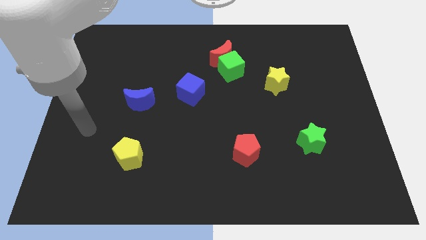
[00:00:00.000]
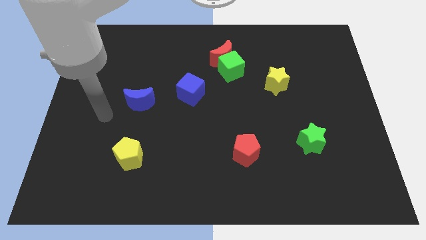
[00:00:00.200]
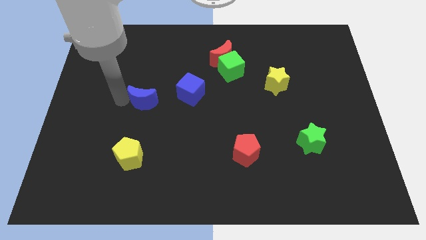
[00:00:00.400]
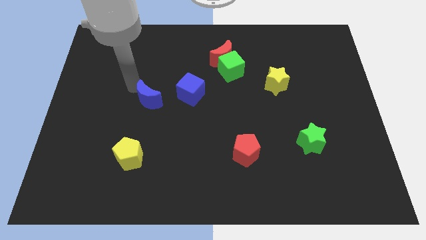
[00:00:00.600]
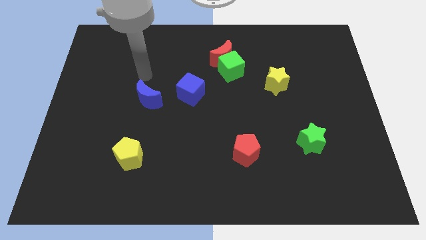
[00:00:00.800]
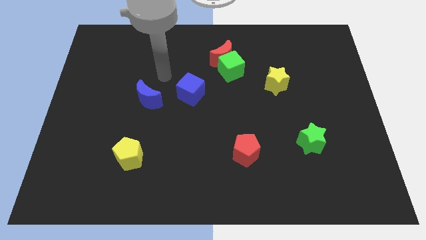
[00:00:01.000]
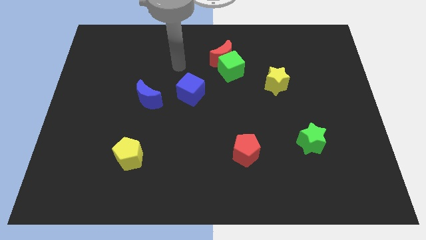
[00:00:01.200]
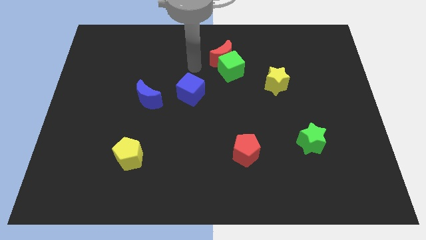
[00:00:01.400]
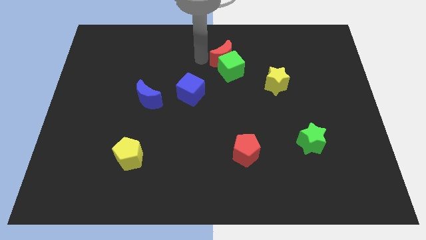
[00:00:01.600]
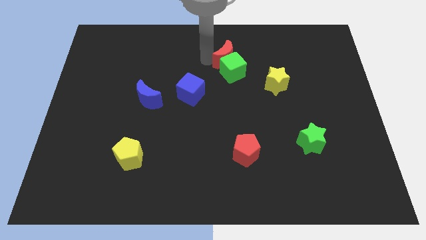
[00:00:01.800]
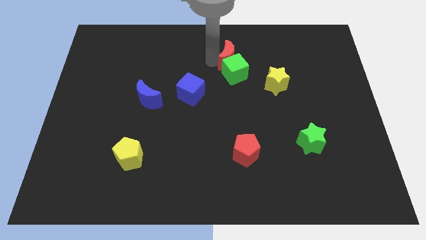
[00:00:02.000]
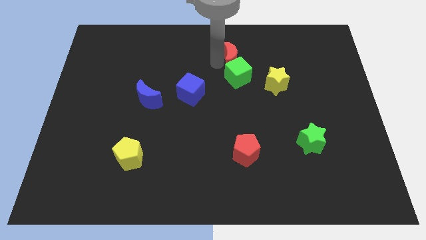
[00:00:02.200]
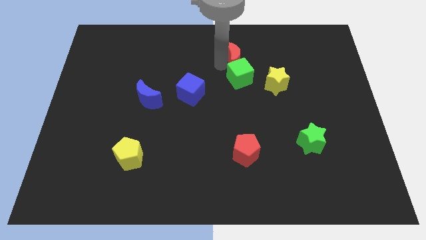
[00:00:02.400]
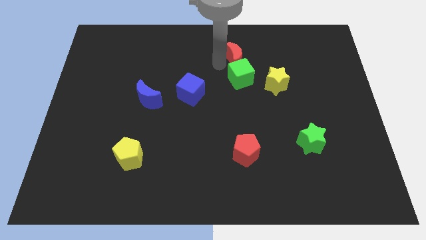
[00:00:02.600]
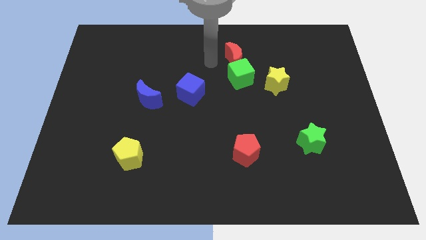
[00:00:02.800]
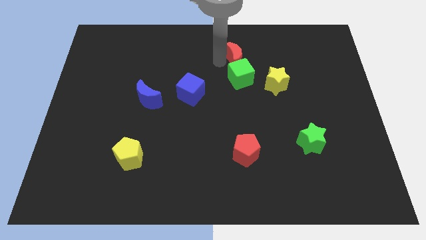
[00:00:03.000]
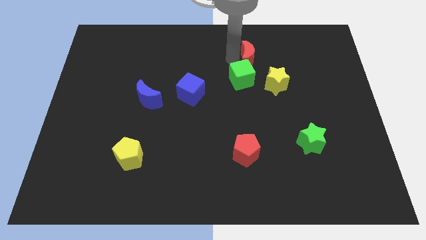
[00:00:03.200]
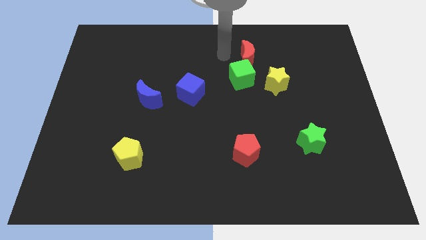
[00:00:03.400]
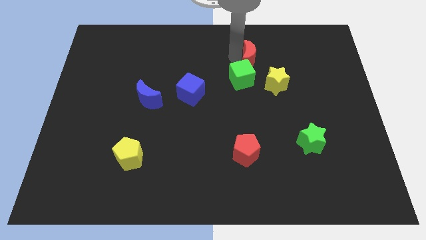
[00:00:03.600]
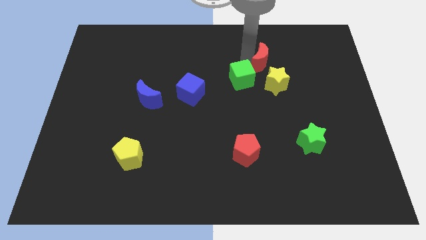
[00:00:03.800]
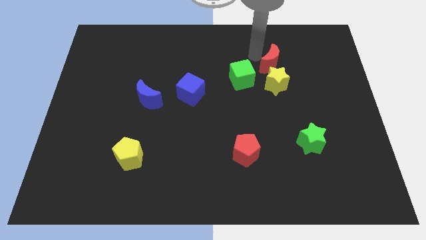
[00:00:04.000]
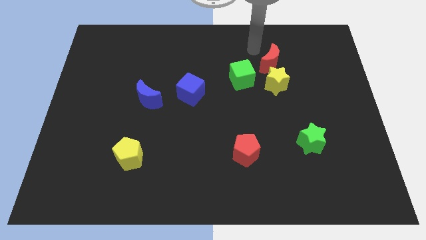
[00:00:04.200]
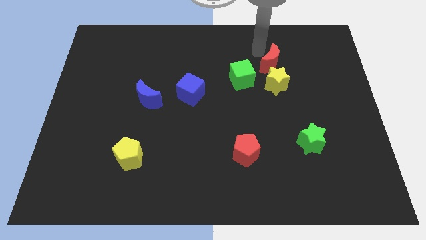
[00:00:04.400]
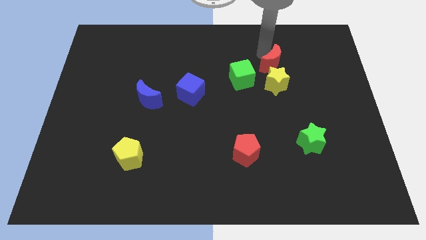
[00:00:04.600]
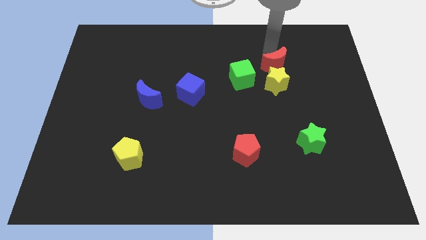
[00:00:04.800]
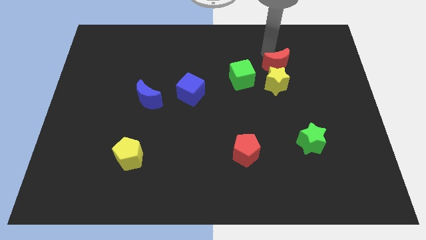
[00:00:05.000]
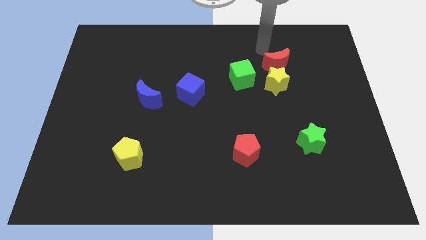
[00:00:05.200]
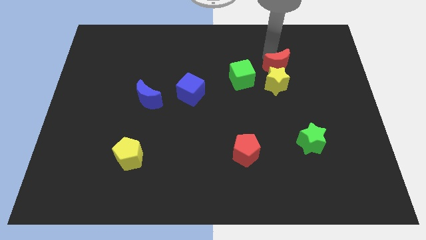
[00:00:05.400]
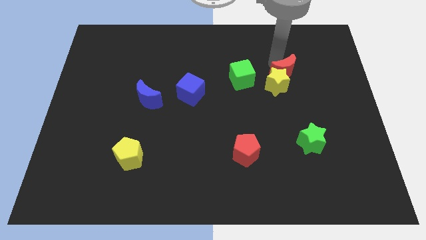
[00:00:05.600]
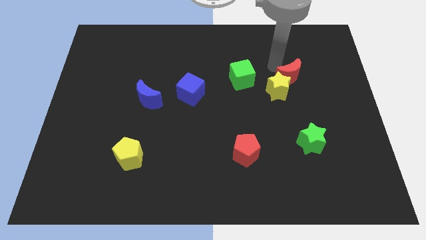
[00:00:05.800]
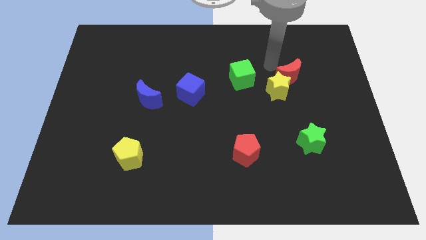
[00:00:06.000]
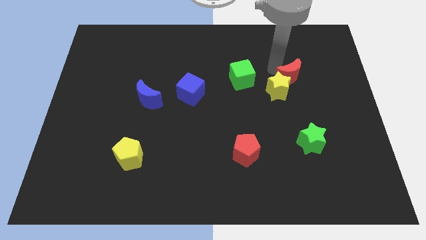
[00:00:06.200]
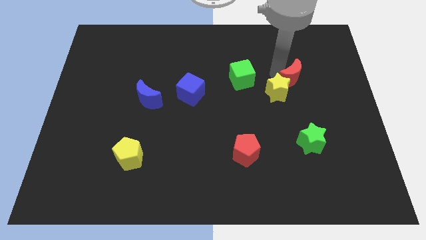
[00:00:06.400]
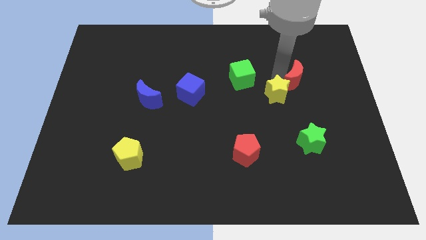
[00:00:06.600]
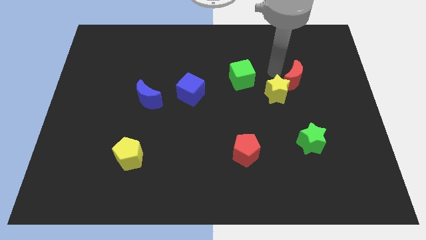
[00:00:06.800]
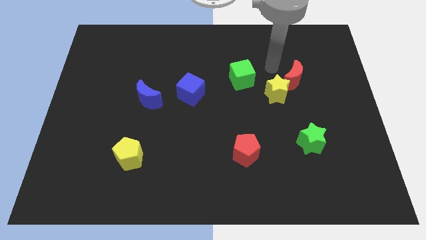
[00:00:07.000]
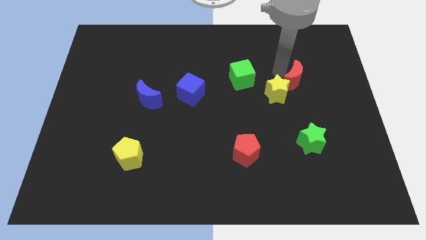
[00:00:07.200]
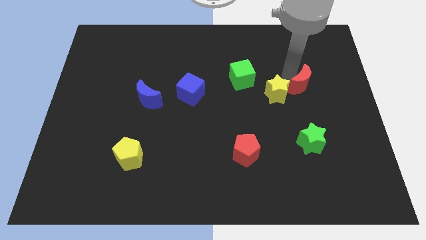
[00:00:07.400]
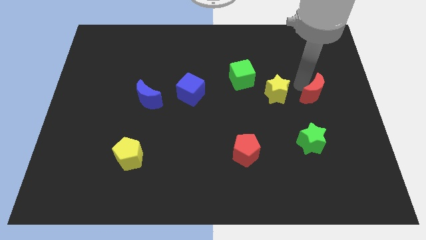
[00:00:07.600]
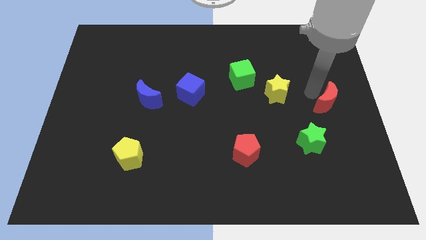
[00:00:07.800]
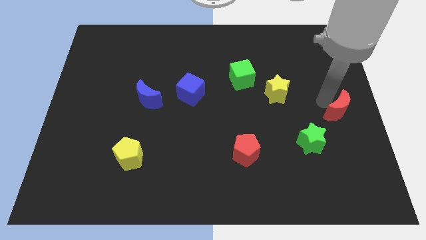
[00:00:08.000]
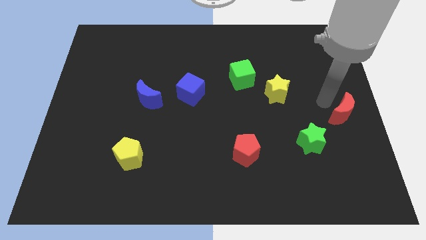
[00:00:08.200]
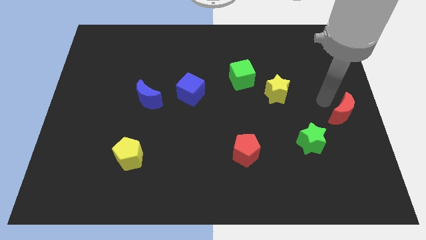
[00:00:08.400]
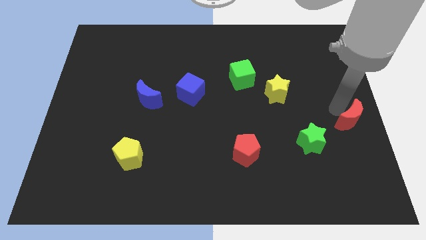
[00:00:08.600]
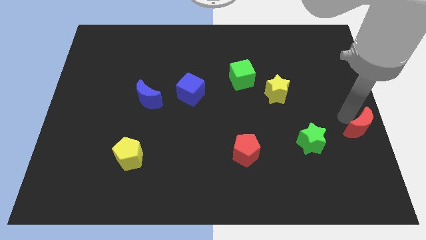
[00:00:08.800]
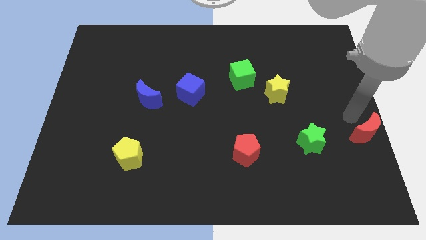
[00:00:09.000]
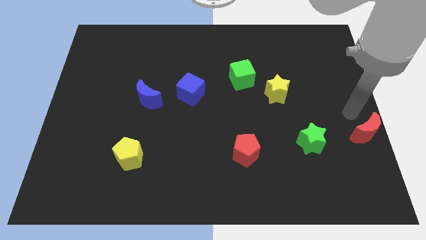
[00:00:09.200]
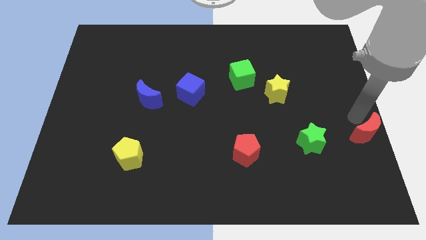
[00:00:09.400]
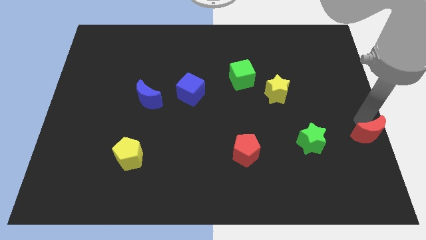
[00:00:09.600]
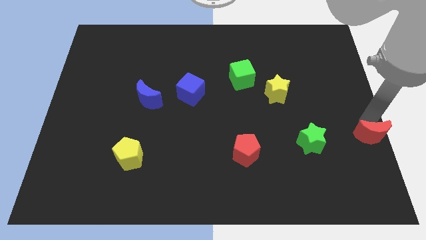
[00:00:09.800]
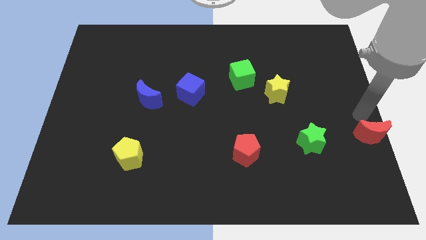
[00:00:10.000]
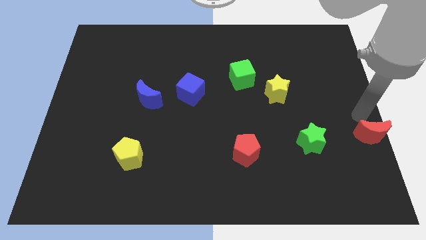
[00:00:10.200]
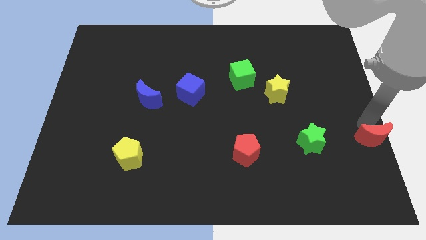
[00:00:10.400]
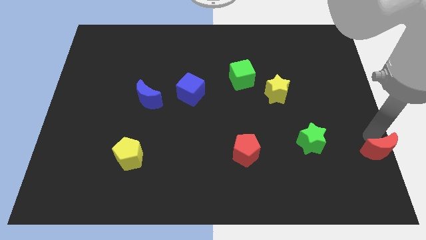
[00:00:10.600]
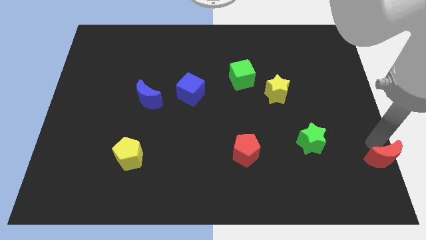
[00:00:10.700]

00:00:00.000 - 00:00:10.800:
put the red moon to the bottom right corner

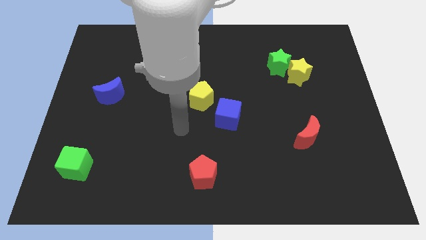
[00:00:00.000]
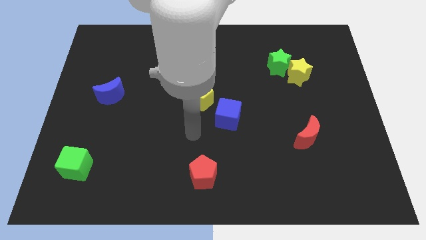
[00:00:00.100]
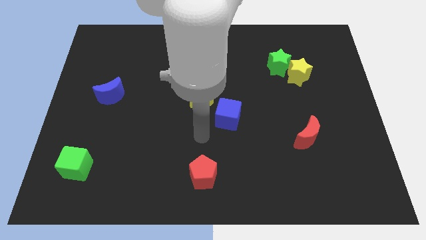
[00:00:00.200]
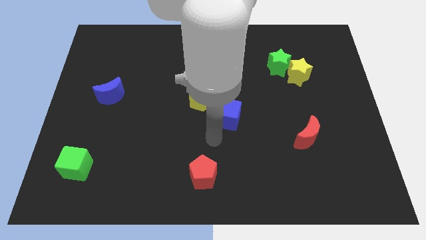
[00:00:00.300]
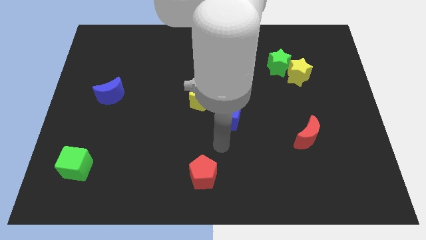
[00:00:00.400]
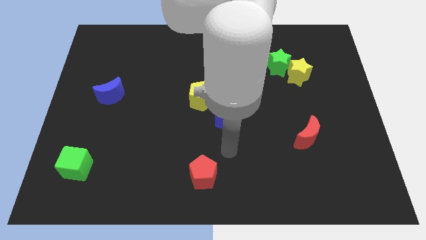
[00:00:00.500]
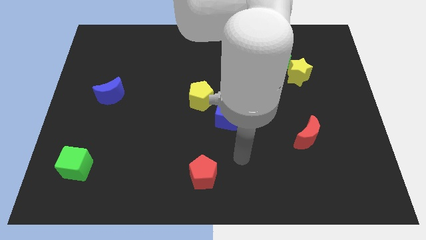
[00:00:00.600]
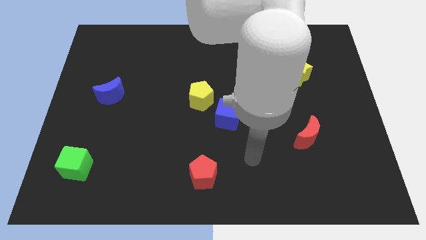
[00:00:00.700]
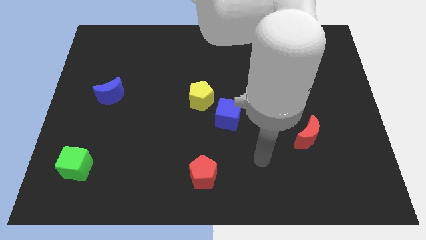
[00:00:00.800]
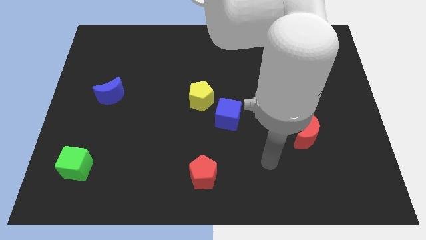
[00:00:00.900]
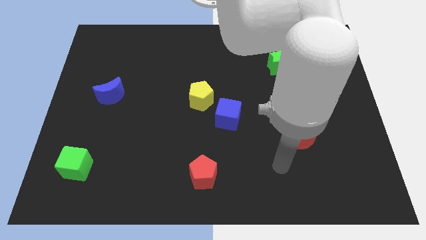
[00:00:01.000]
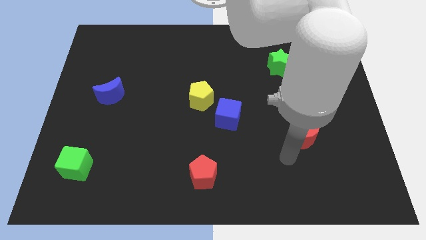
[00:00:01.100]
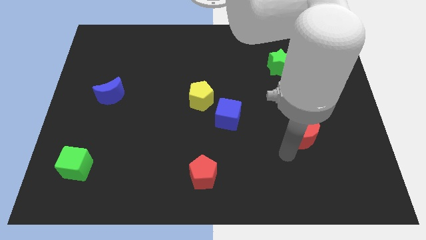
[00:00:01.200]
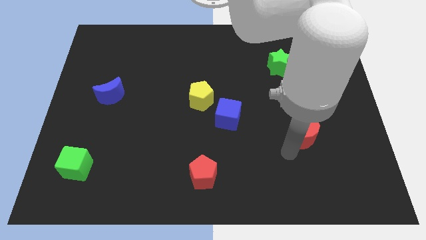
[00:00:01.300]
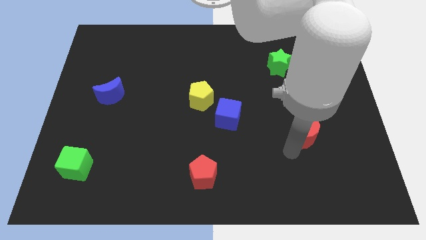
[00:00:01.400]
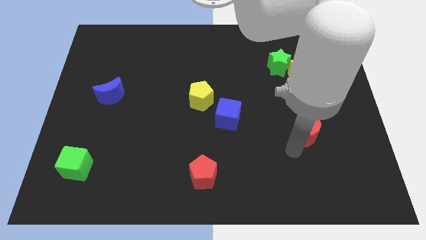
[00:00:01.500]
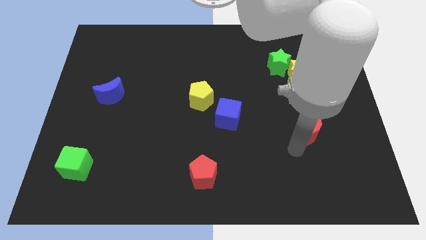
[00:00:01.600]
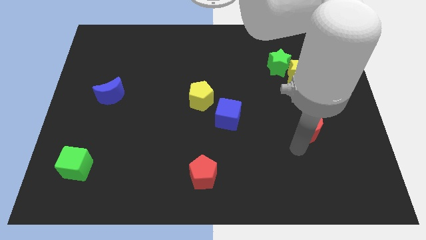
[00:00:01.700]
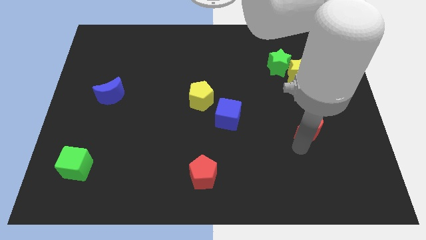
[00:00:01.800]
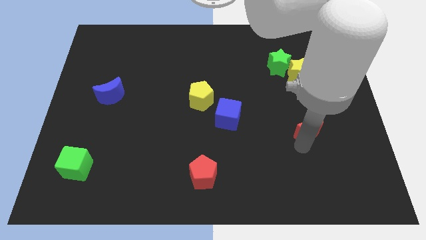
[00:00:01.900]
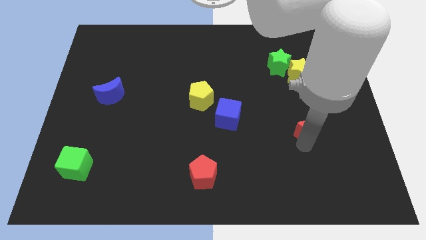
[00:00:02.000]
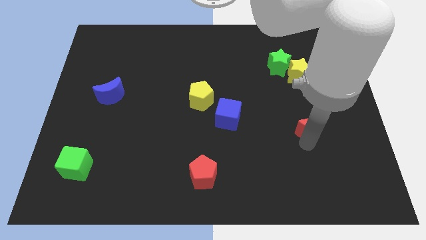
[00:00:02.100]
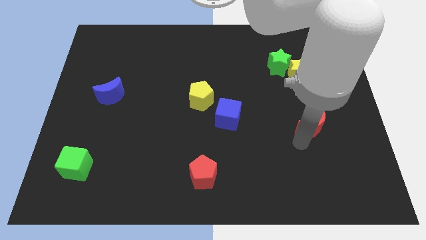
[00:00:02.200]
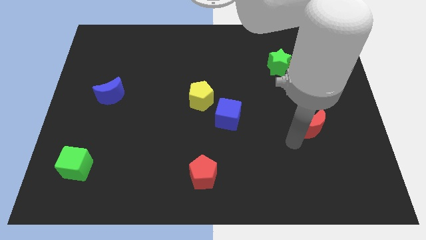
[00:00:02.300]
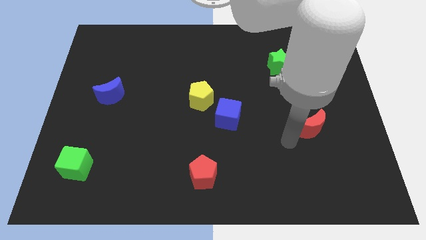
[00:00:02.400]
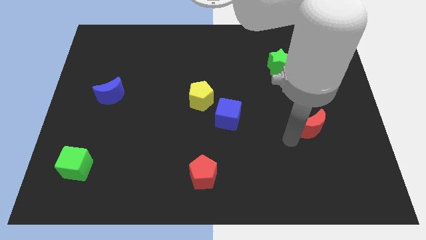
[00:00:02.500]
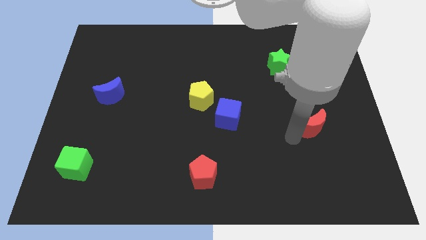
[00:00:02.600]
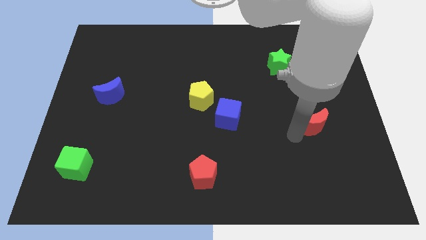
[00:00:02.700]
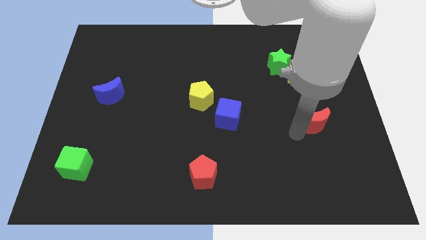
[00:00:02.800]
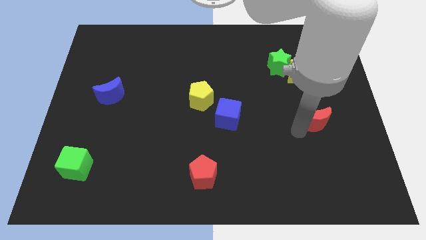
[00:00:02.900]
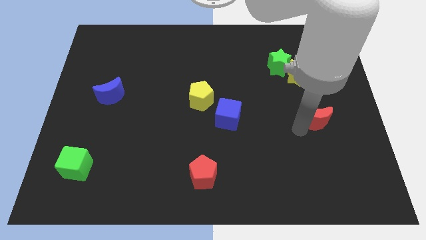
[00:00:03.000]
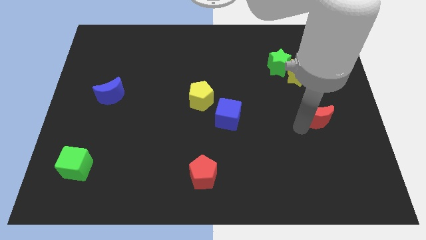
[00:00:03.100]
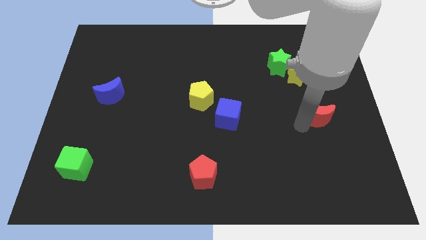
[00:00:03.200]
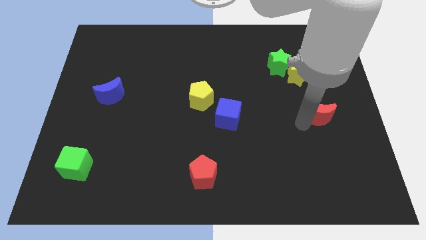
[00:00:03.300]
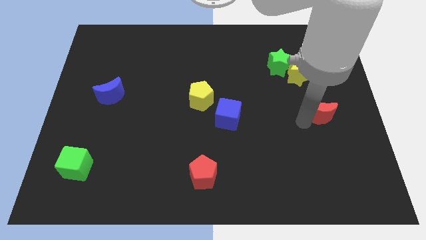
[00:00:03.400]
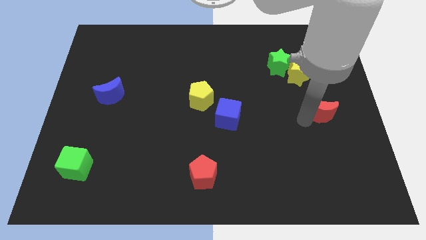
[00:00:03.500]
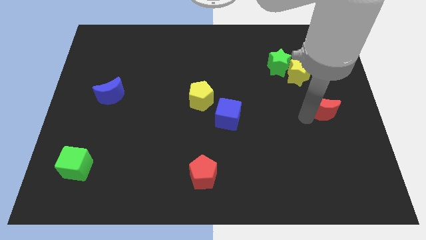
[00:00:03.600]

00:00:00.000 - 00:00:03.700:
slide the red moon to the right side
